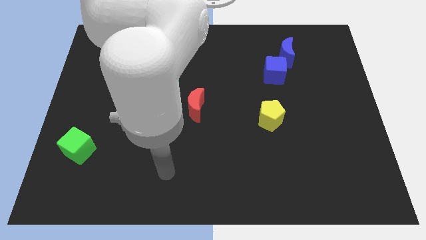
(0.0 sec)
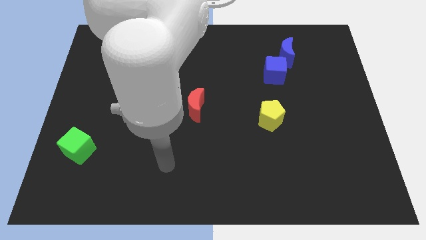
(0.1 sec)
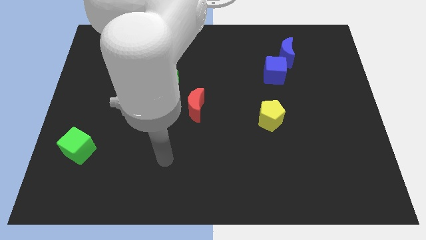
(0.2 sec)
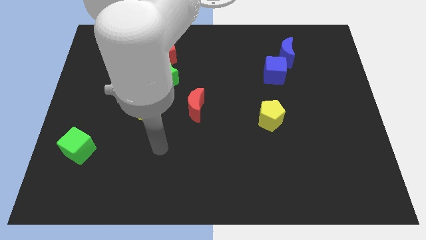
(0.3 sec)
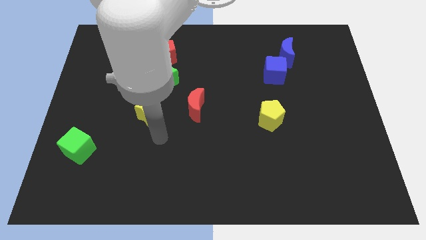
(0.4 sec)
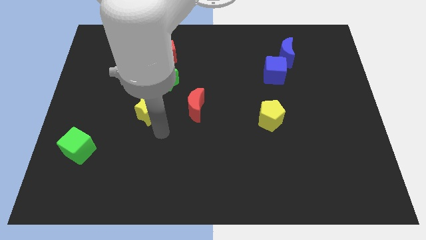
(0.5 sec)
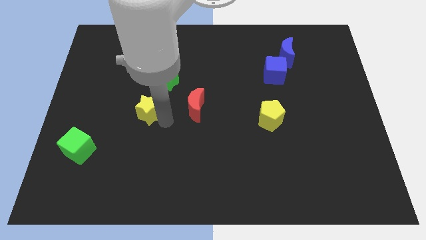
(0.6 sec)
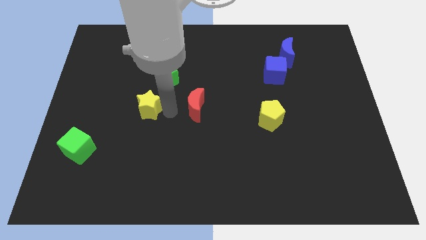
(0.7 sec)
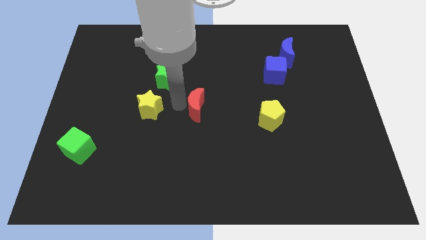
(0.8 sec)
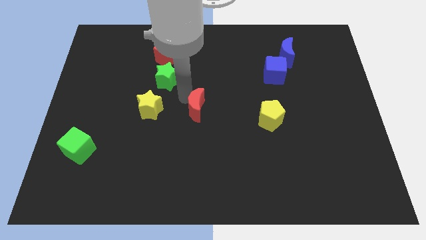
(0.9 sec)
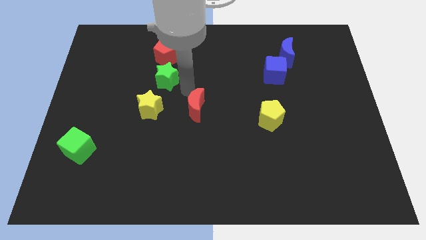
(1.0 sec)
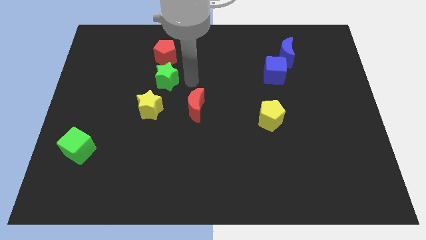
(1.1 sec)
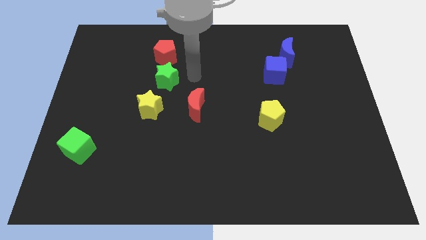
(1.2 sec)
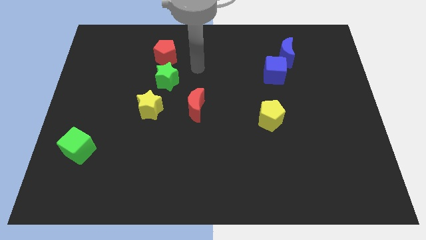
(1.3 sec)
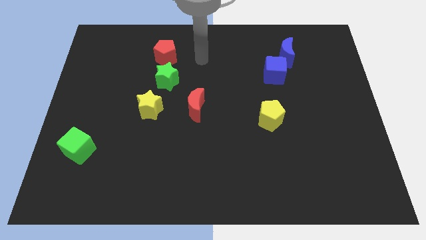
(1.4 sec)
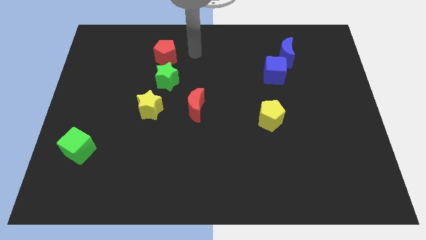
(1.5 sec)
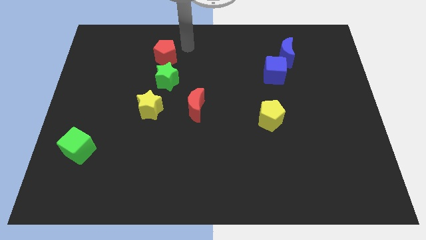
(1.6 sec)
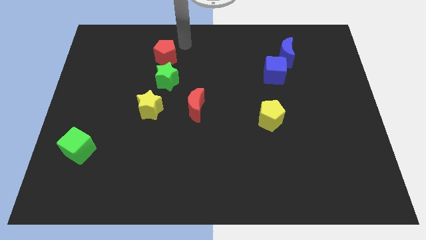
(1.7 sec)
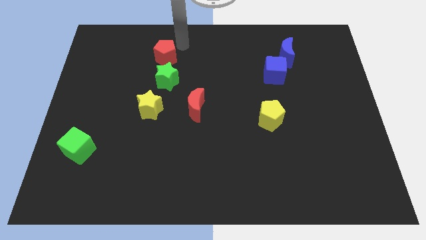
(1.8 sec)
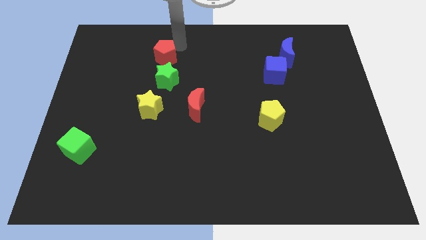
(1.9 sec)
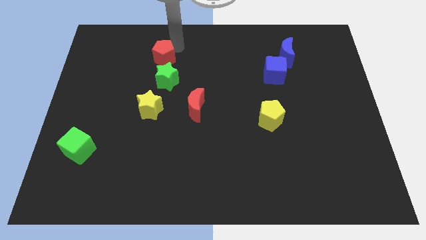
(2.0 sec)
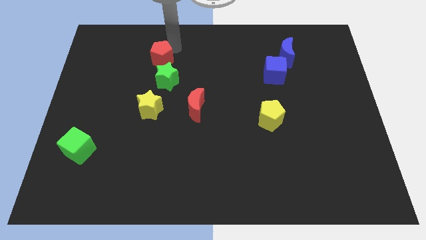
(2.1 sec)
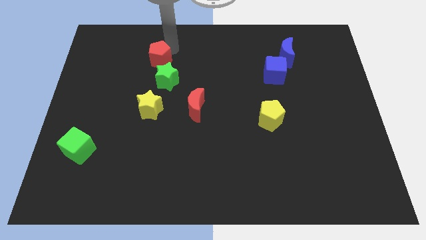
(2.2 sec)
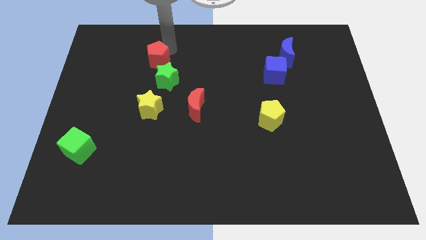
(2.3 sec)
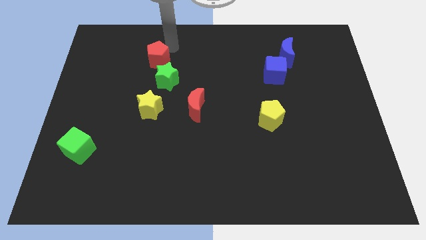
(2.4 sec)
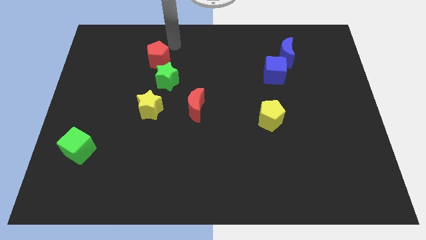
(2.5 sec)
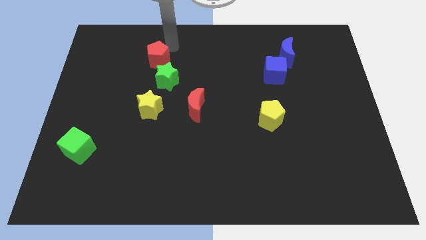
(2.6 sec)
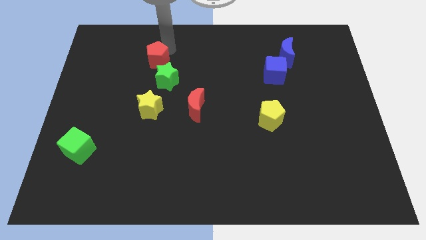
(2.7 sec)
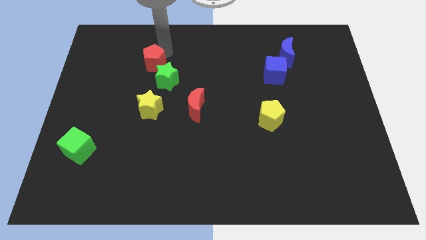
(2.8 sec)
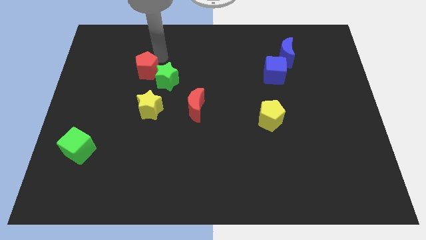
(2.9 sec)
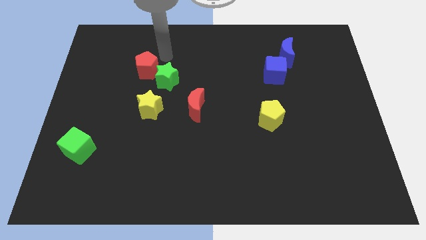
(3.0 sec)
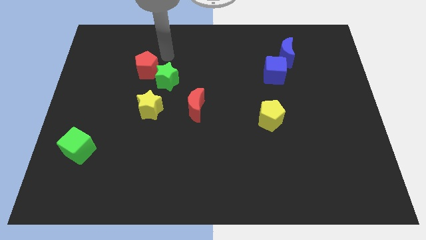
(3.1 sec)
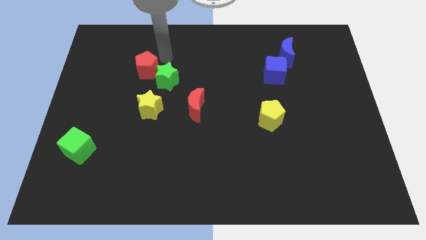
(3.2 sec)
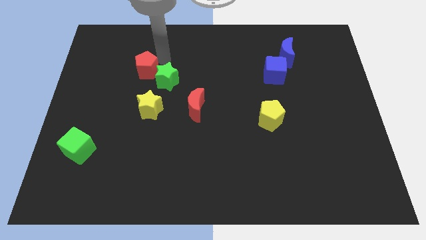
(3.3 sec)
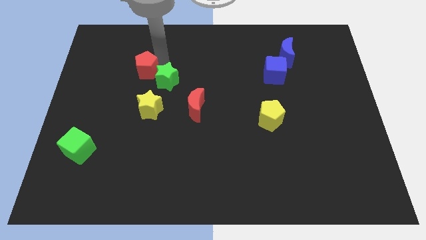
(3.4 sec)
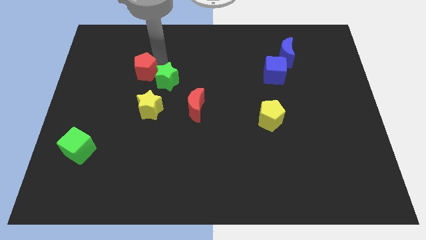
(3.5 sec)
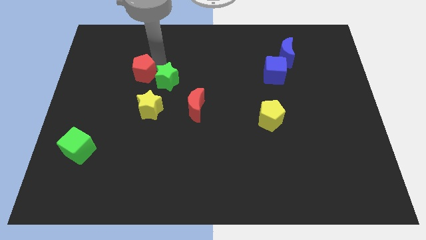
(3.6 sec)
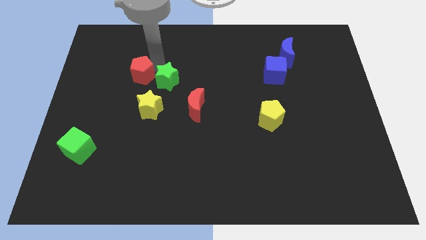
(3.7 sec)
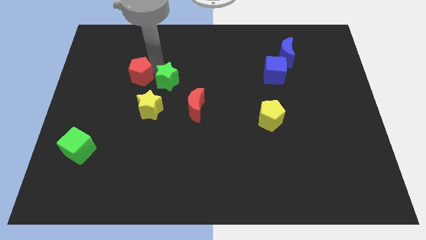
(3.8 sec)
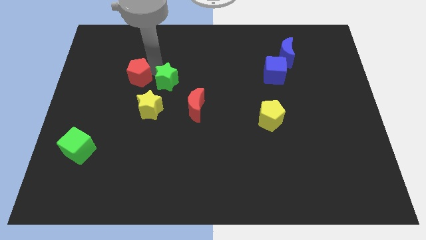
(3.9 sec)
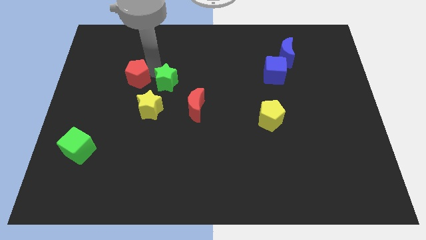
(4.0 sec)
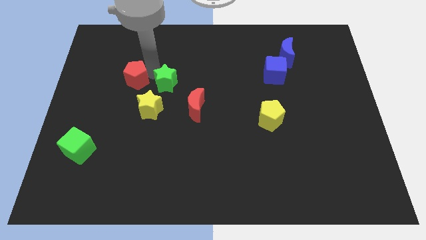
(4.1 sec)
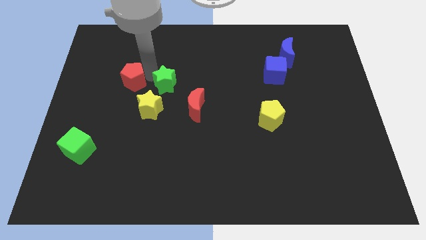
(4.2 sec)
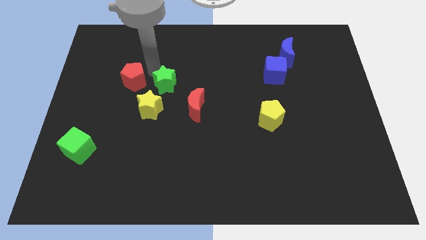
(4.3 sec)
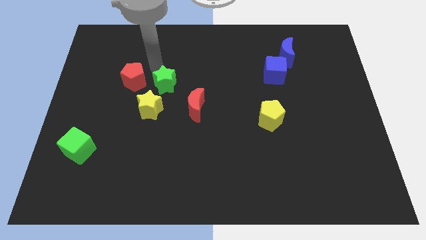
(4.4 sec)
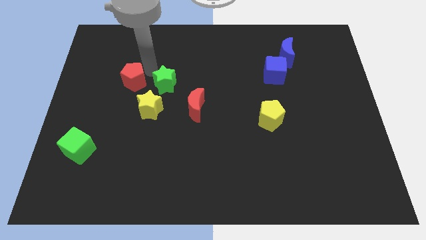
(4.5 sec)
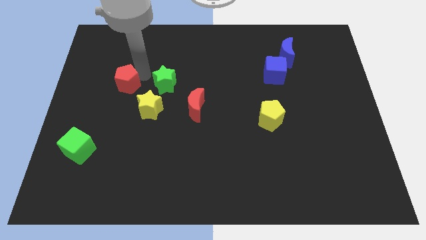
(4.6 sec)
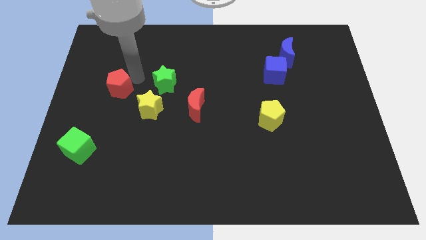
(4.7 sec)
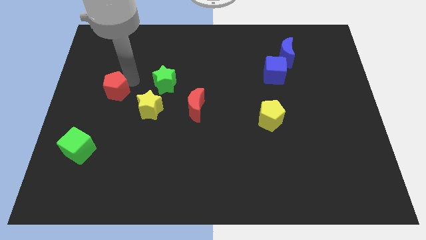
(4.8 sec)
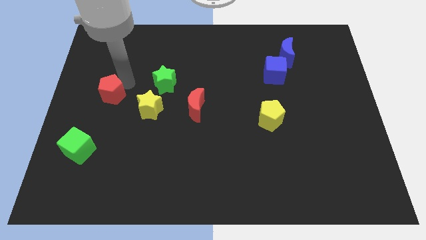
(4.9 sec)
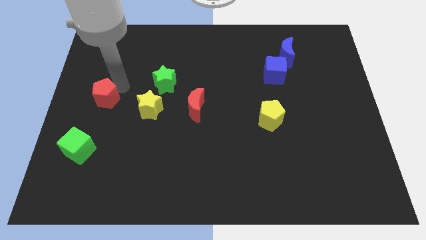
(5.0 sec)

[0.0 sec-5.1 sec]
move the red pentagon to the top side of the green cube
